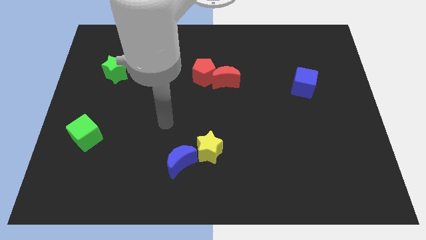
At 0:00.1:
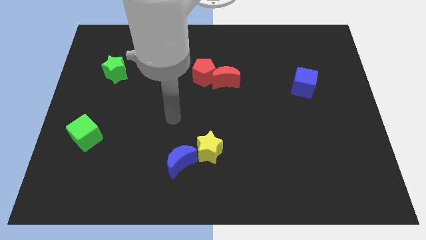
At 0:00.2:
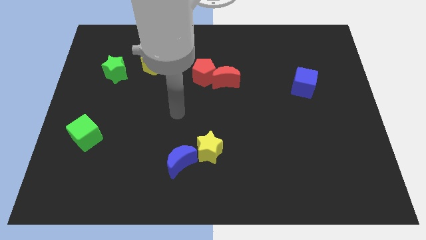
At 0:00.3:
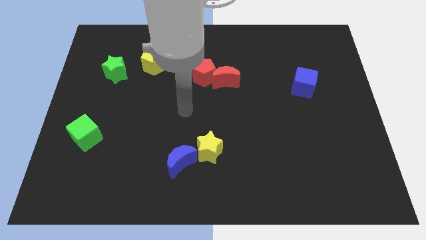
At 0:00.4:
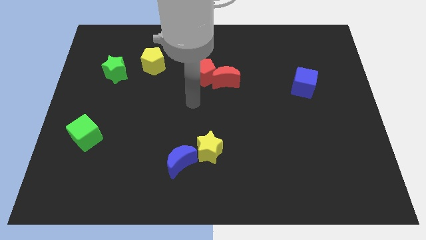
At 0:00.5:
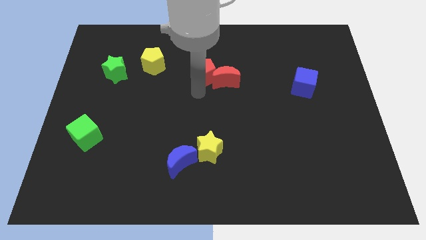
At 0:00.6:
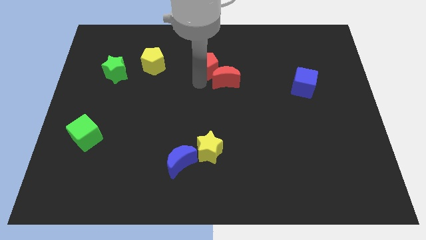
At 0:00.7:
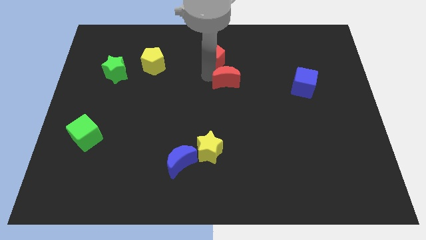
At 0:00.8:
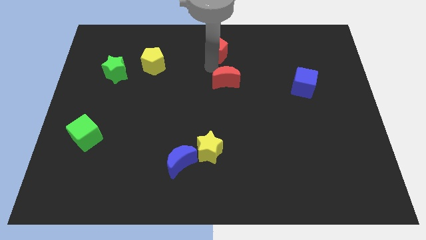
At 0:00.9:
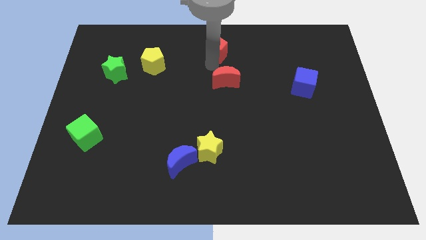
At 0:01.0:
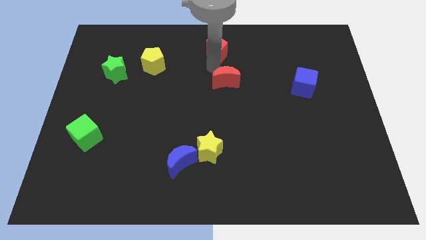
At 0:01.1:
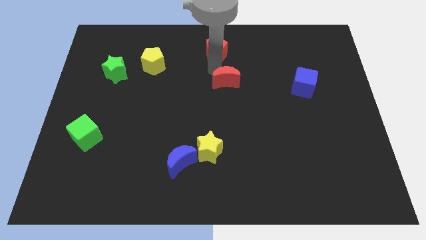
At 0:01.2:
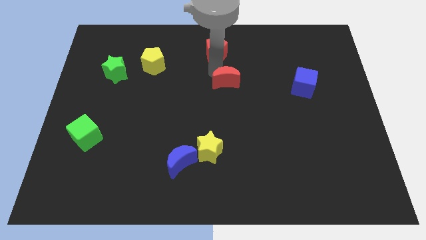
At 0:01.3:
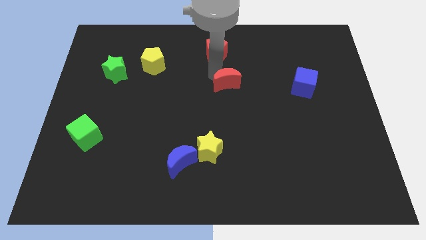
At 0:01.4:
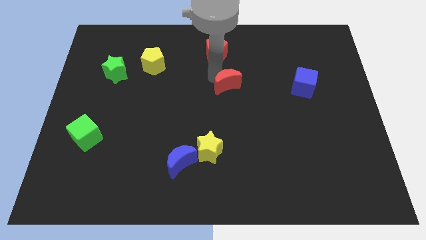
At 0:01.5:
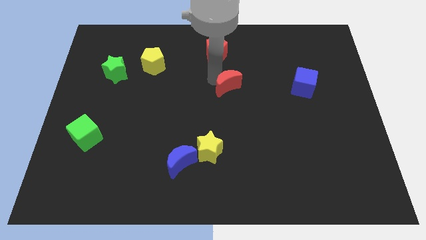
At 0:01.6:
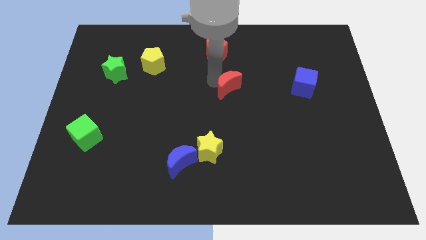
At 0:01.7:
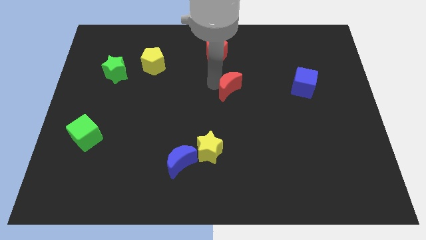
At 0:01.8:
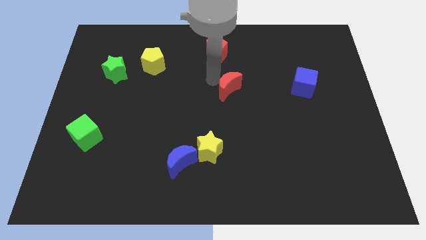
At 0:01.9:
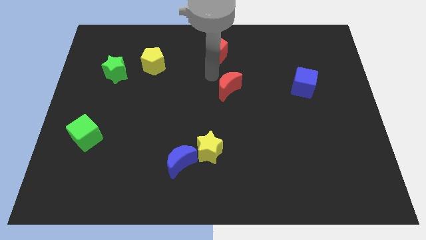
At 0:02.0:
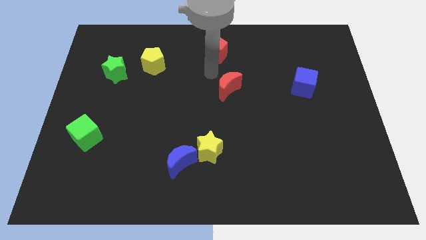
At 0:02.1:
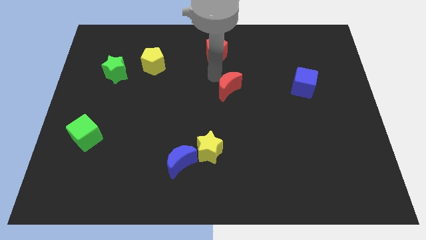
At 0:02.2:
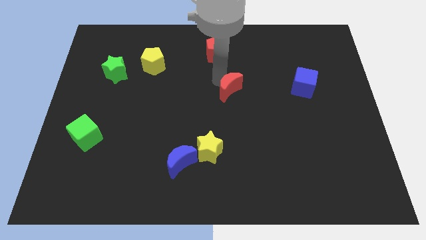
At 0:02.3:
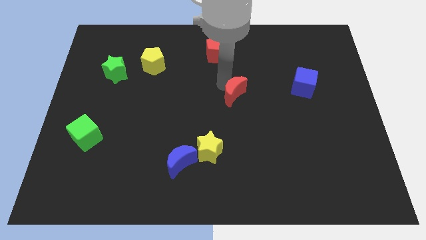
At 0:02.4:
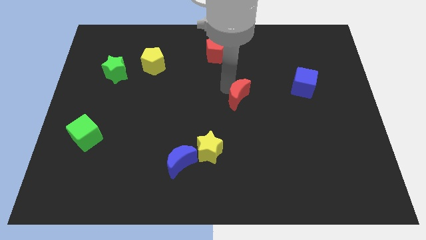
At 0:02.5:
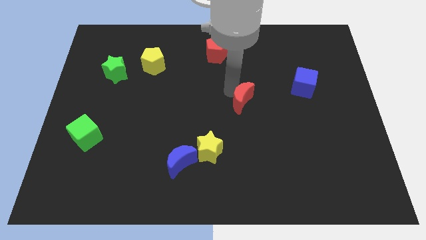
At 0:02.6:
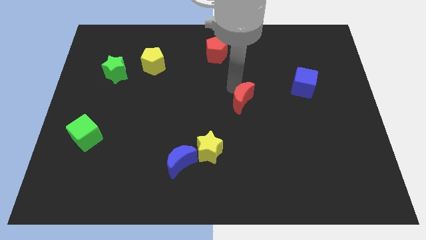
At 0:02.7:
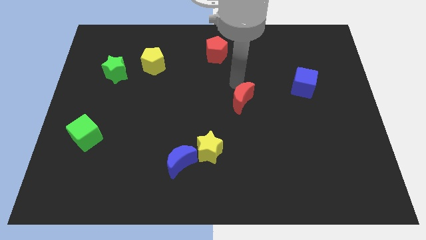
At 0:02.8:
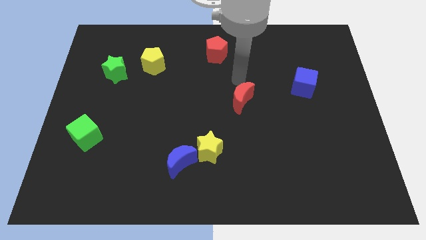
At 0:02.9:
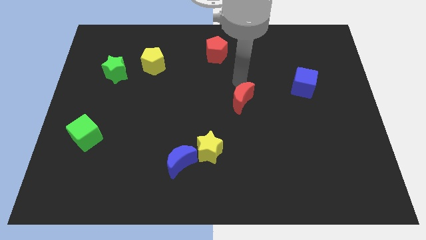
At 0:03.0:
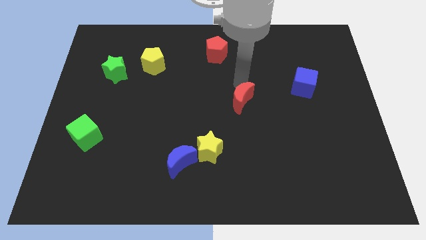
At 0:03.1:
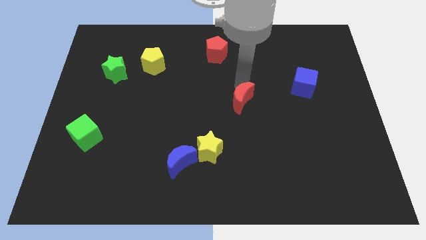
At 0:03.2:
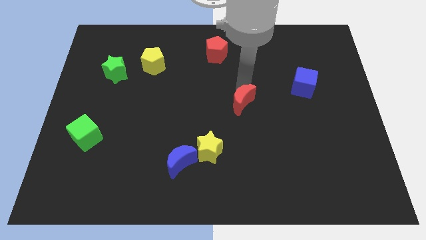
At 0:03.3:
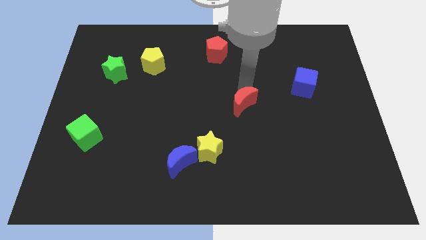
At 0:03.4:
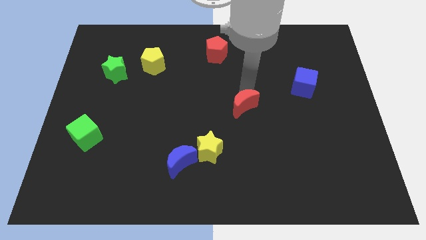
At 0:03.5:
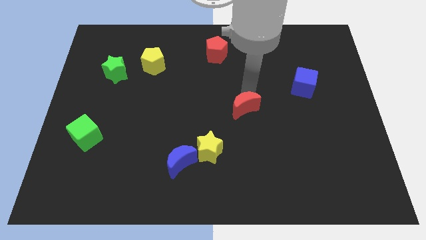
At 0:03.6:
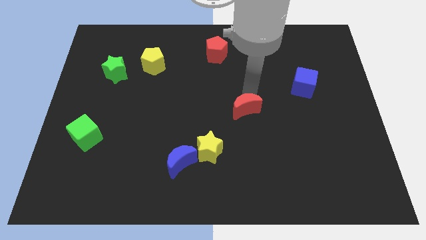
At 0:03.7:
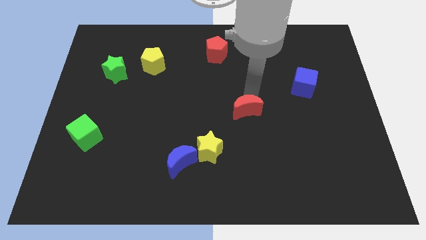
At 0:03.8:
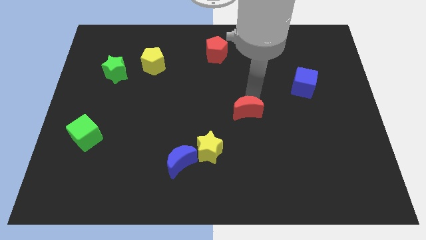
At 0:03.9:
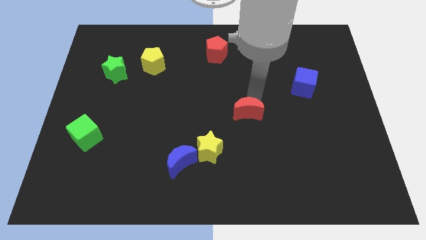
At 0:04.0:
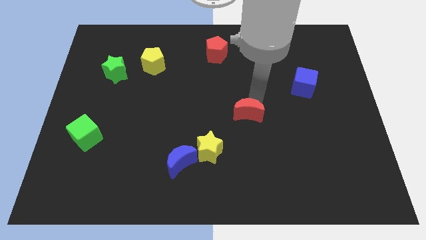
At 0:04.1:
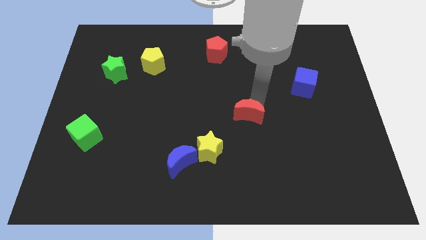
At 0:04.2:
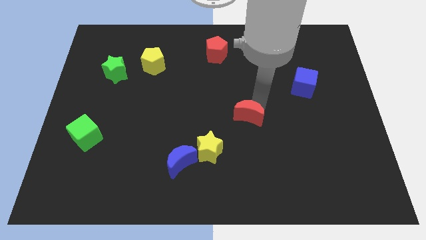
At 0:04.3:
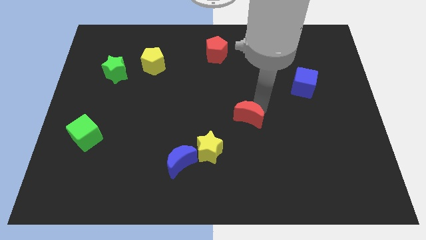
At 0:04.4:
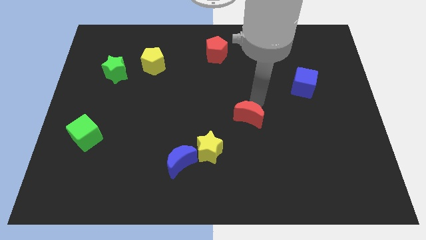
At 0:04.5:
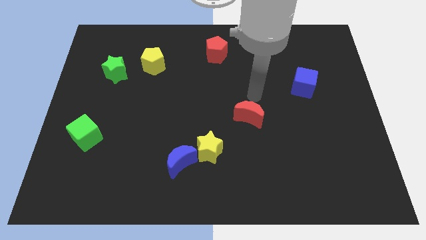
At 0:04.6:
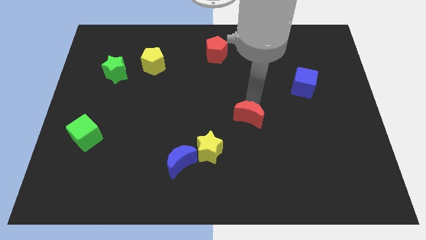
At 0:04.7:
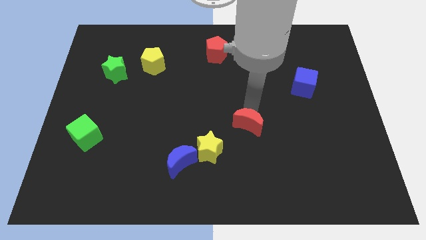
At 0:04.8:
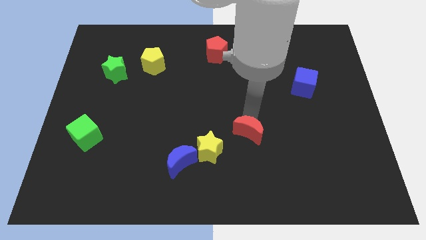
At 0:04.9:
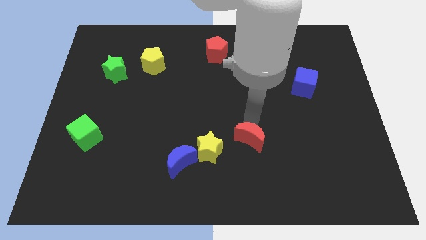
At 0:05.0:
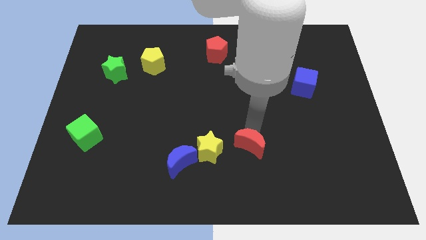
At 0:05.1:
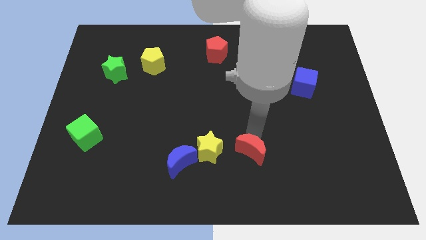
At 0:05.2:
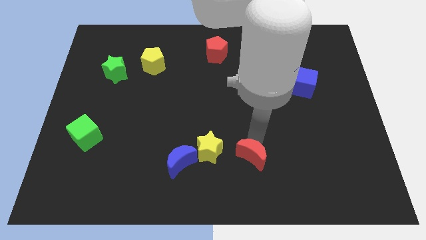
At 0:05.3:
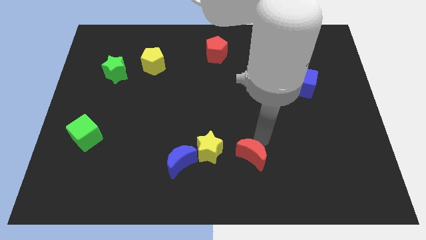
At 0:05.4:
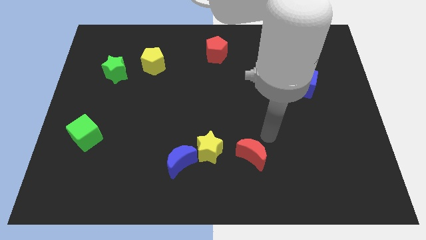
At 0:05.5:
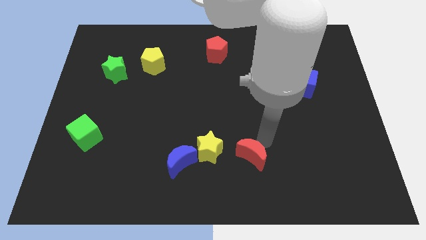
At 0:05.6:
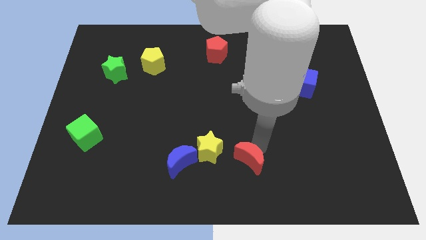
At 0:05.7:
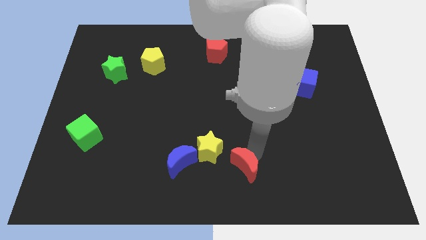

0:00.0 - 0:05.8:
move the red moon to the bottom
